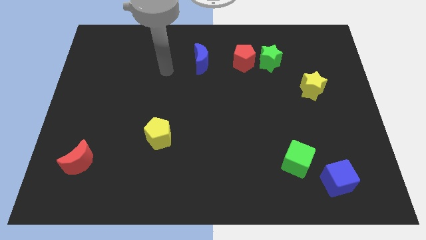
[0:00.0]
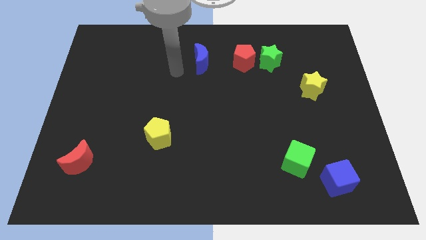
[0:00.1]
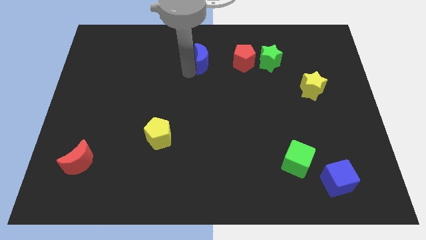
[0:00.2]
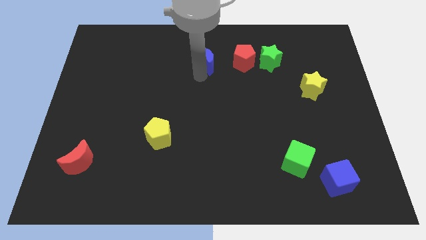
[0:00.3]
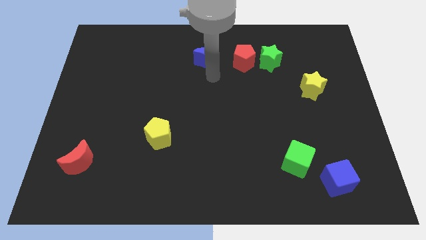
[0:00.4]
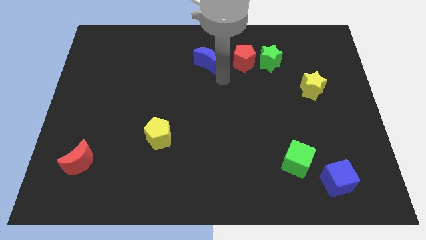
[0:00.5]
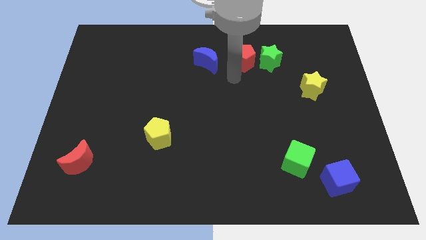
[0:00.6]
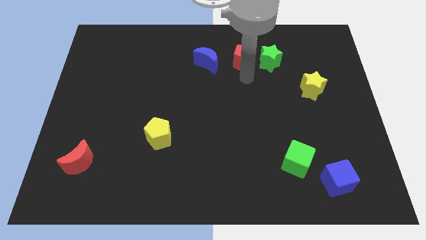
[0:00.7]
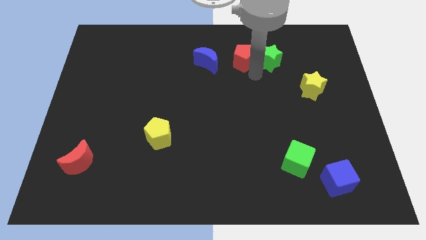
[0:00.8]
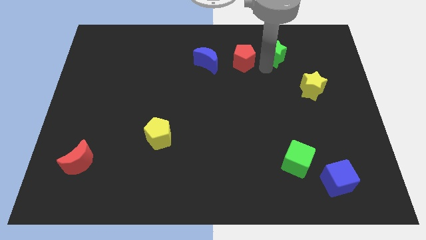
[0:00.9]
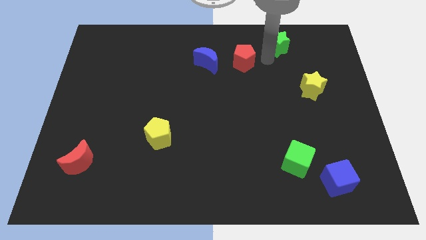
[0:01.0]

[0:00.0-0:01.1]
separate the red pentagon from the green star

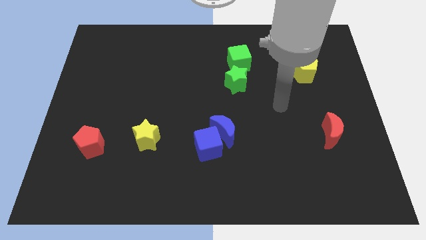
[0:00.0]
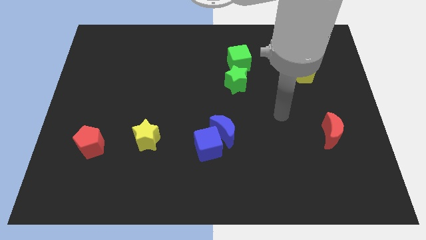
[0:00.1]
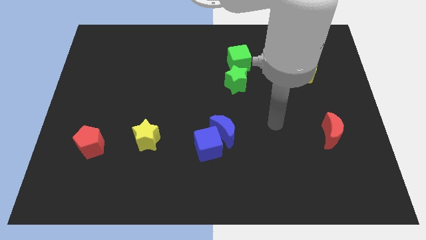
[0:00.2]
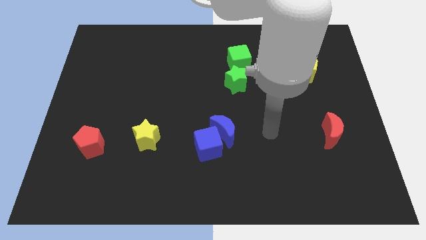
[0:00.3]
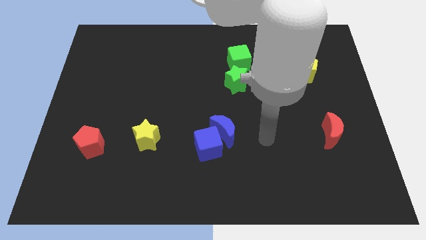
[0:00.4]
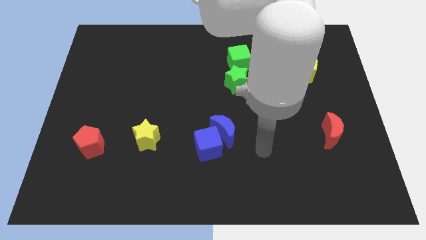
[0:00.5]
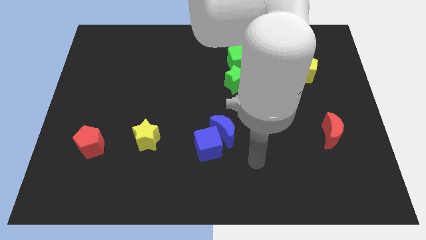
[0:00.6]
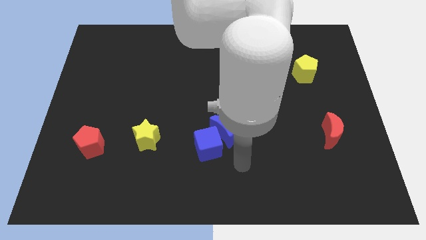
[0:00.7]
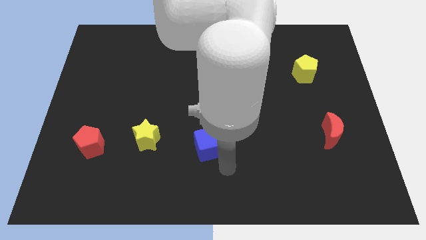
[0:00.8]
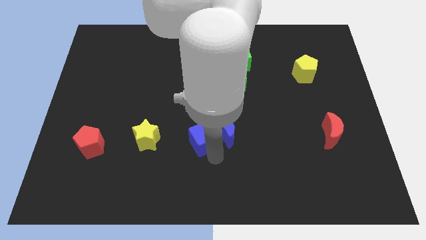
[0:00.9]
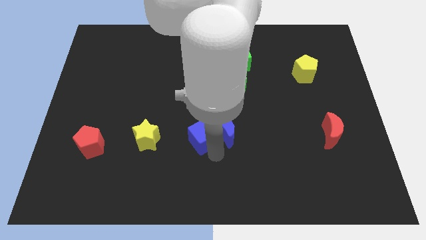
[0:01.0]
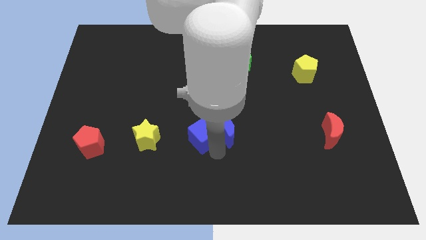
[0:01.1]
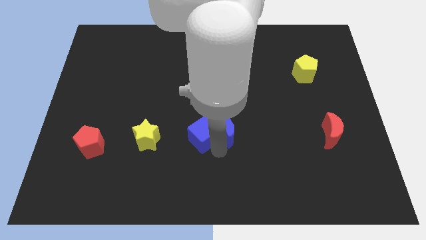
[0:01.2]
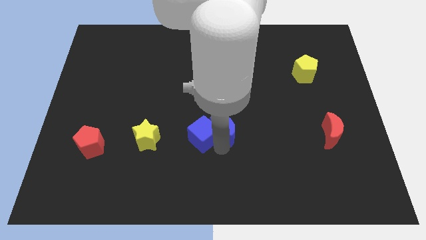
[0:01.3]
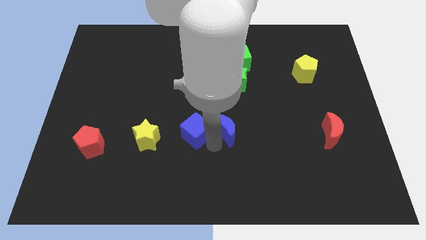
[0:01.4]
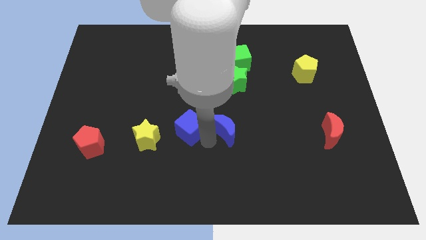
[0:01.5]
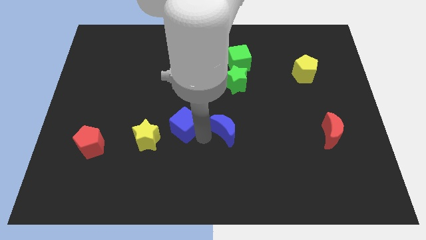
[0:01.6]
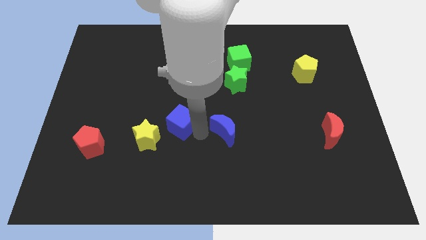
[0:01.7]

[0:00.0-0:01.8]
separate the blue moon from the blue cube

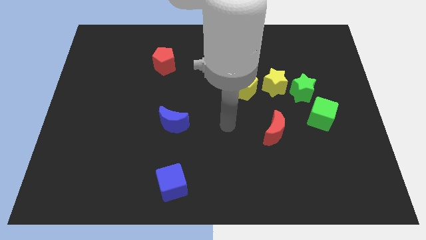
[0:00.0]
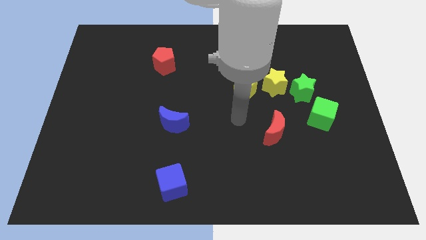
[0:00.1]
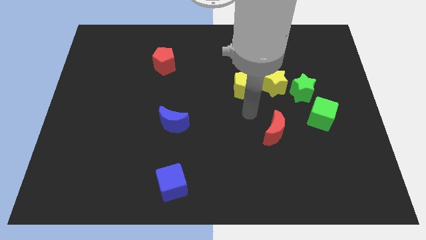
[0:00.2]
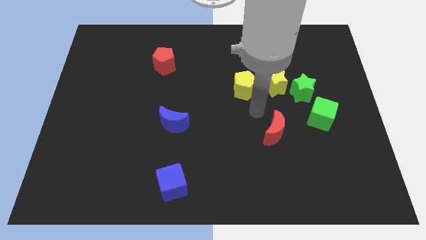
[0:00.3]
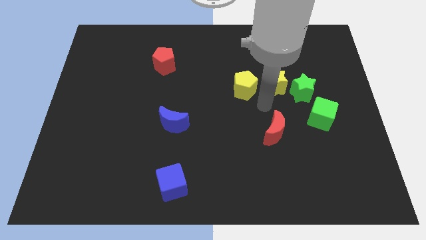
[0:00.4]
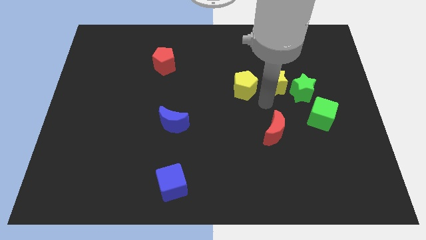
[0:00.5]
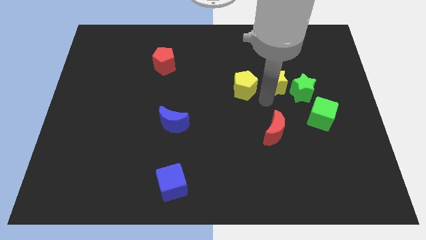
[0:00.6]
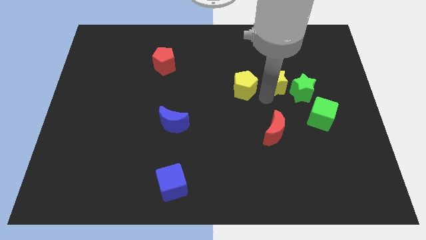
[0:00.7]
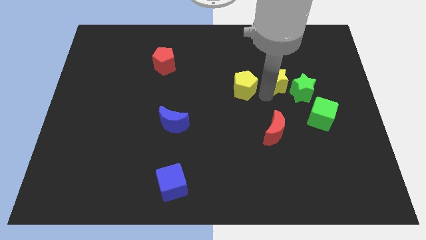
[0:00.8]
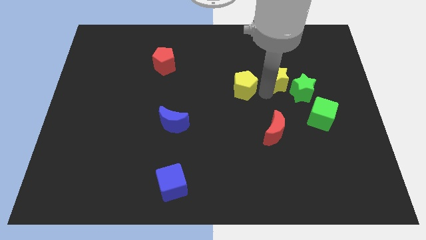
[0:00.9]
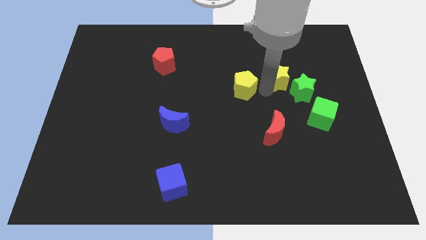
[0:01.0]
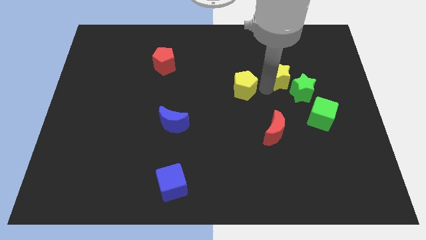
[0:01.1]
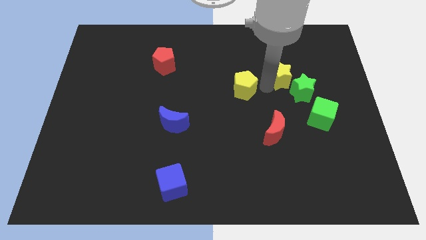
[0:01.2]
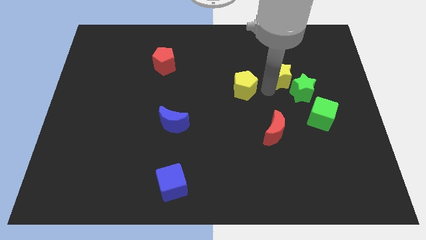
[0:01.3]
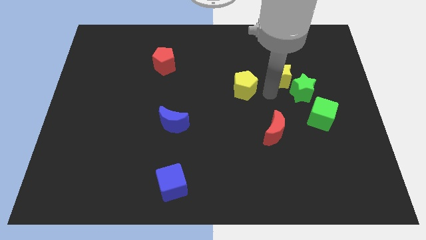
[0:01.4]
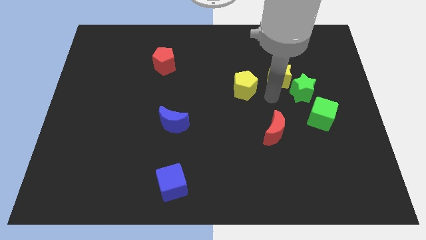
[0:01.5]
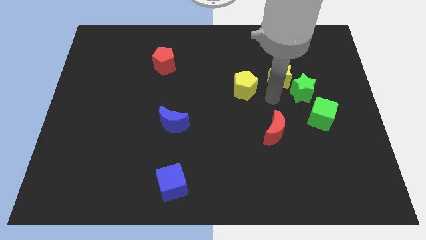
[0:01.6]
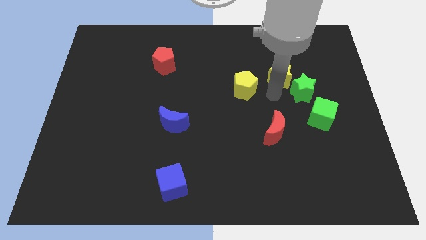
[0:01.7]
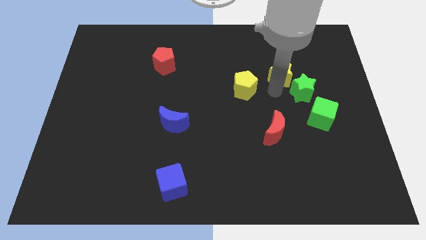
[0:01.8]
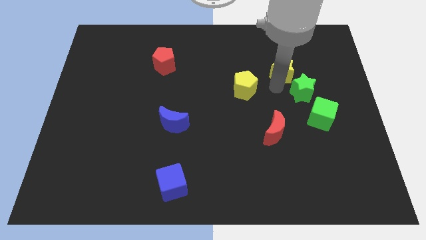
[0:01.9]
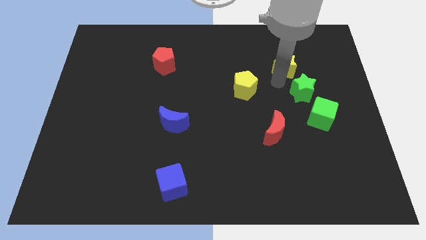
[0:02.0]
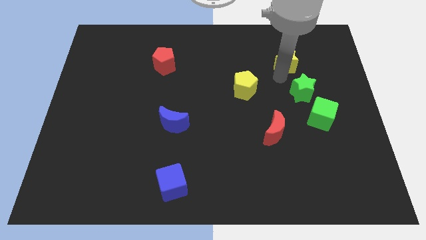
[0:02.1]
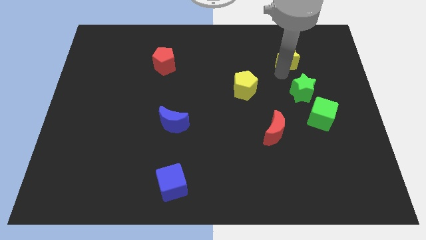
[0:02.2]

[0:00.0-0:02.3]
move the yellow star away from the green star and yellow pentagon

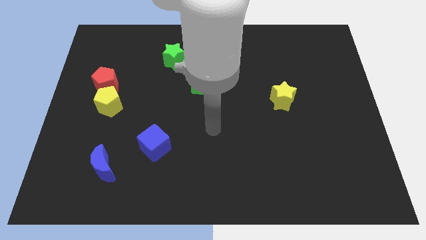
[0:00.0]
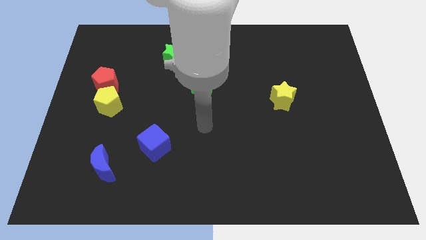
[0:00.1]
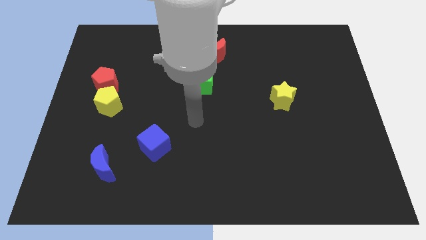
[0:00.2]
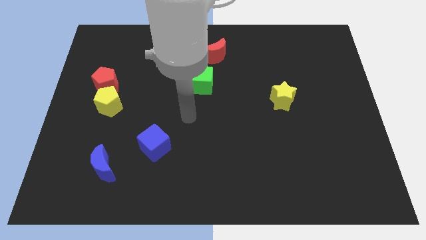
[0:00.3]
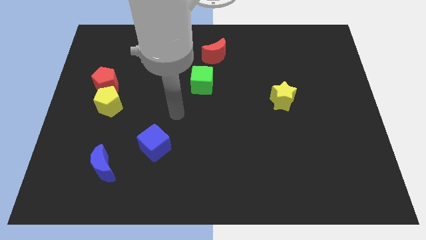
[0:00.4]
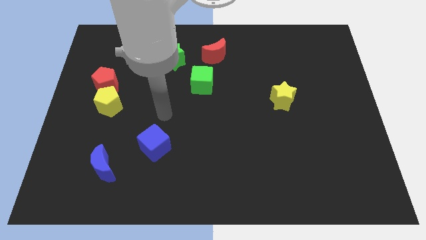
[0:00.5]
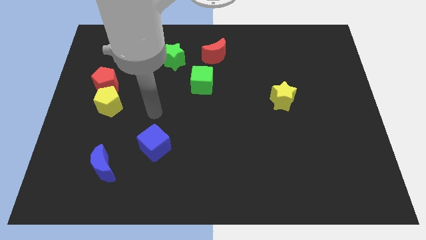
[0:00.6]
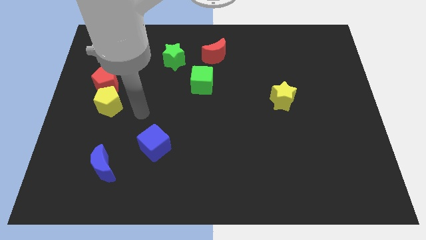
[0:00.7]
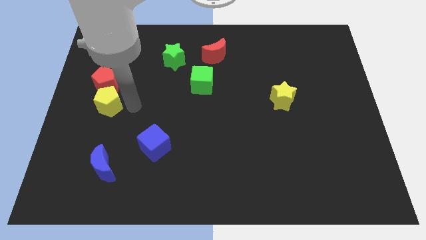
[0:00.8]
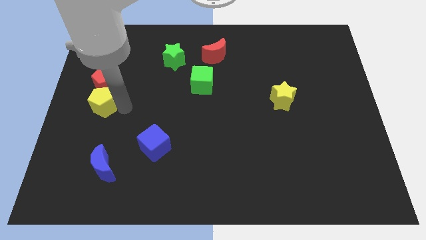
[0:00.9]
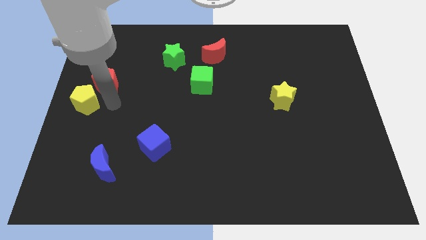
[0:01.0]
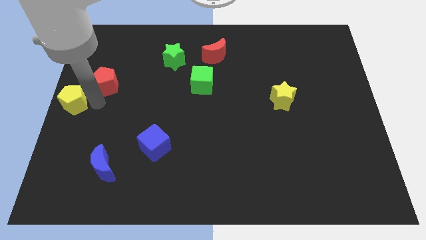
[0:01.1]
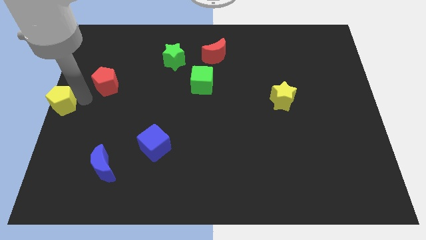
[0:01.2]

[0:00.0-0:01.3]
pull the red pentagon apart from the yellow pentagon

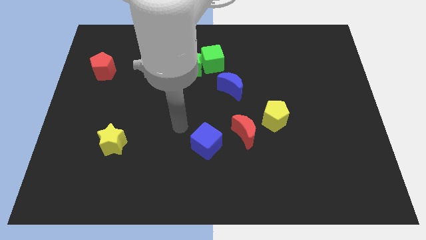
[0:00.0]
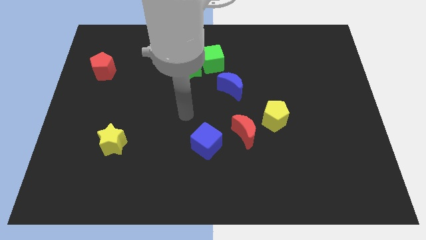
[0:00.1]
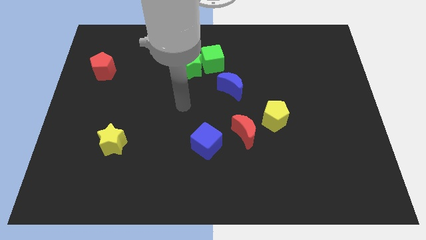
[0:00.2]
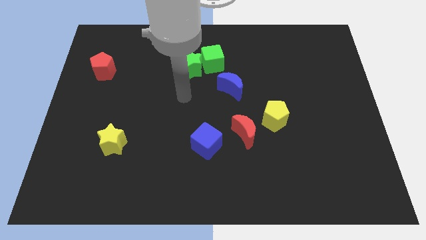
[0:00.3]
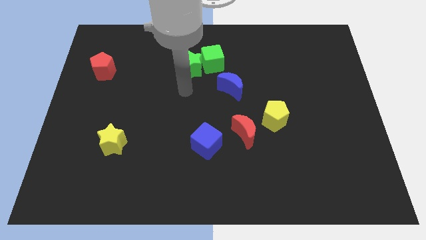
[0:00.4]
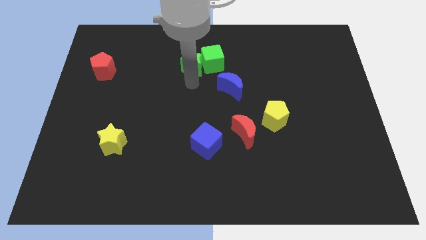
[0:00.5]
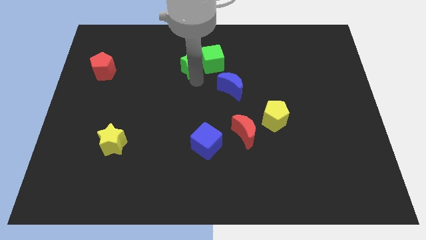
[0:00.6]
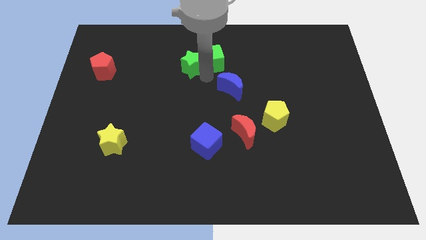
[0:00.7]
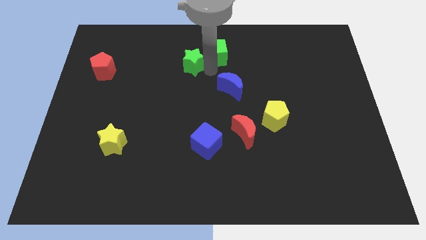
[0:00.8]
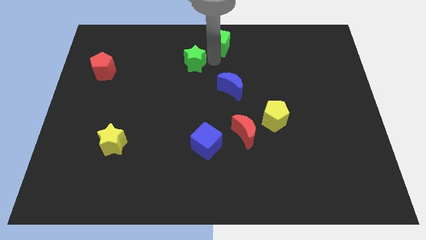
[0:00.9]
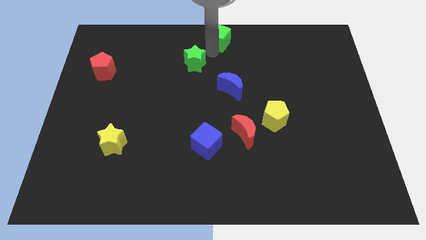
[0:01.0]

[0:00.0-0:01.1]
separate the green star from the green cube

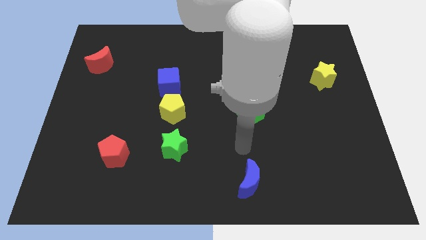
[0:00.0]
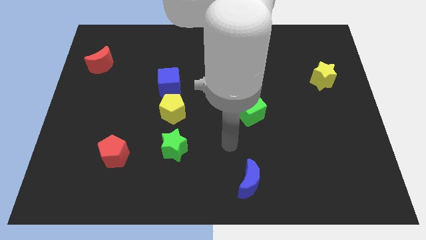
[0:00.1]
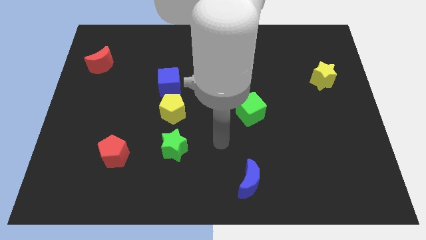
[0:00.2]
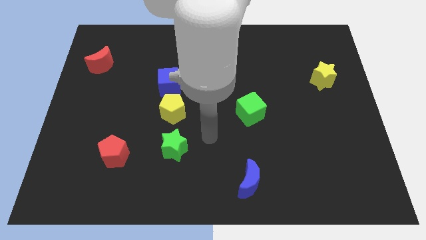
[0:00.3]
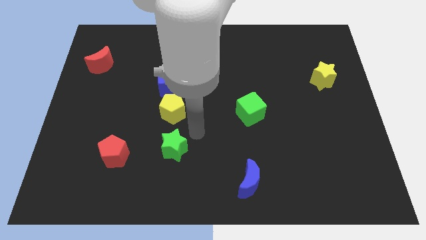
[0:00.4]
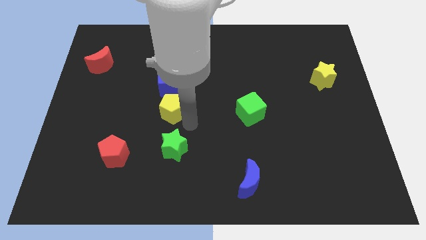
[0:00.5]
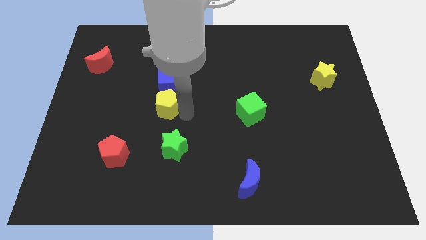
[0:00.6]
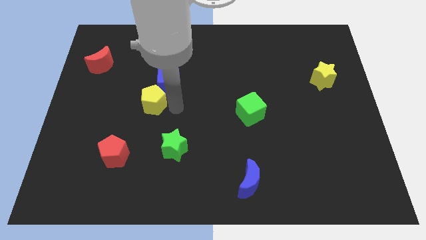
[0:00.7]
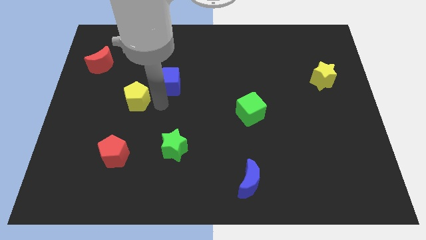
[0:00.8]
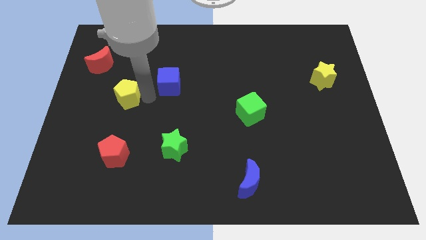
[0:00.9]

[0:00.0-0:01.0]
pull the blue cube apart from the yellow pentagon

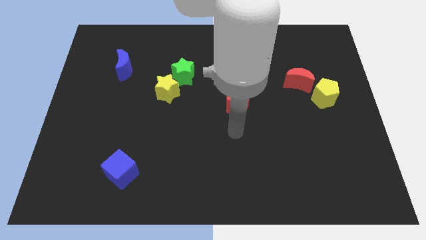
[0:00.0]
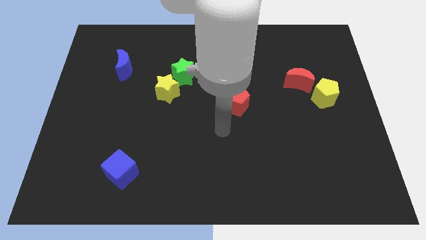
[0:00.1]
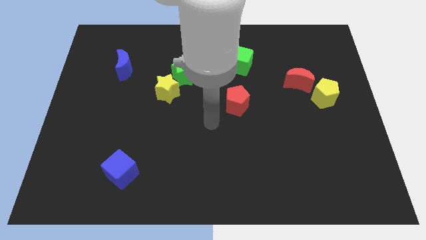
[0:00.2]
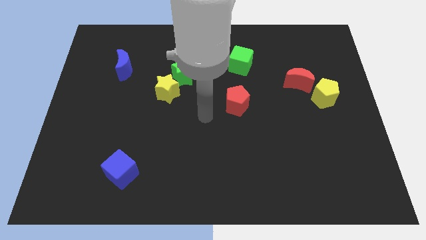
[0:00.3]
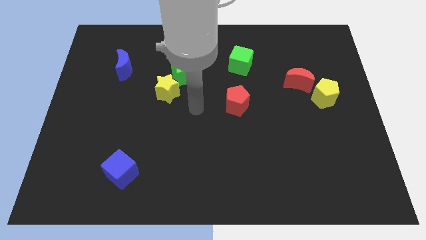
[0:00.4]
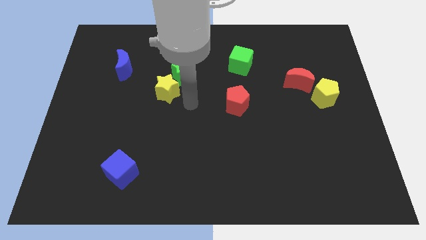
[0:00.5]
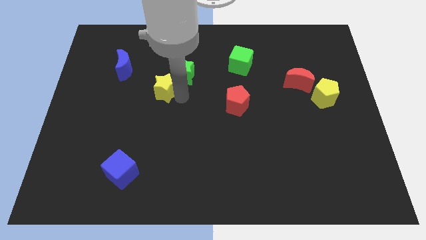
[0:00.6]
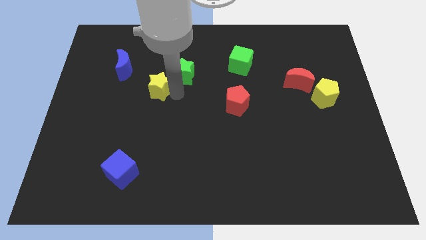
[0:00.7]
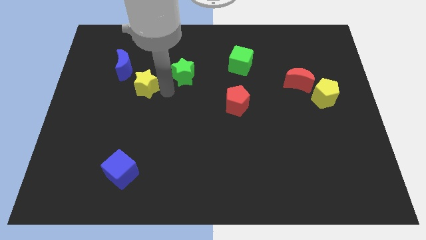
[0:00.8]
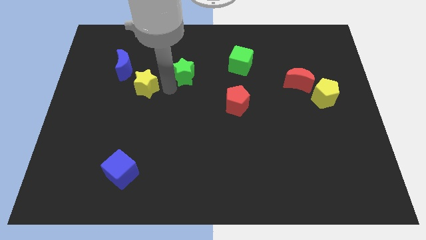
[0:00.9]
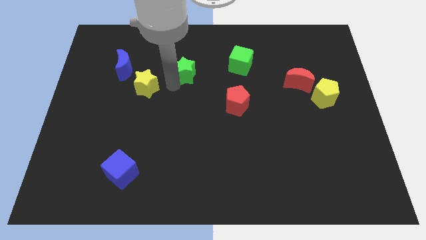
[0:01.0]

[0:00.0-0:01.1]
separate the green star from the yellow star
